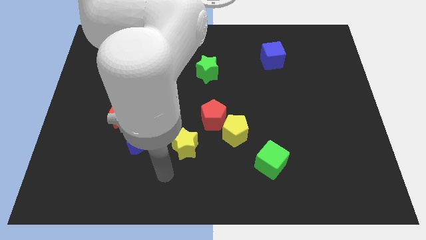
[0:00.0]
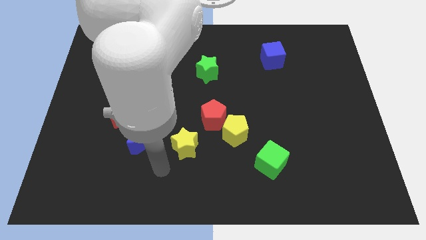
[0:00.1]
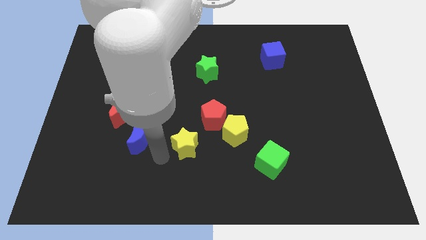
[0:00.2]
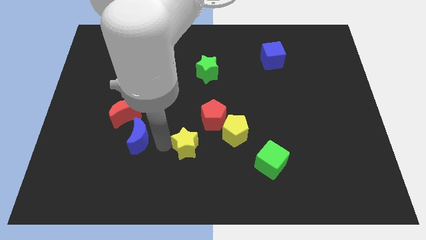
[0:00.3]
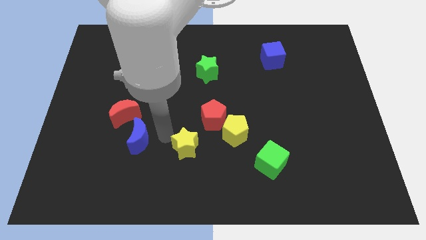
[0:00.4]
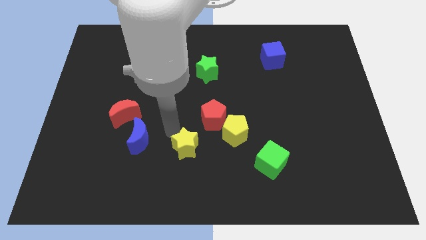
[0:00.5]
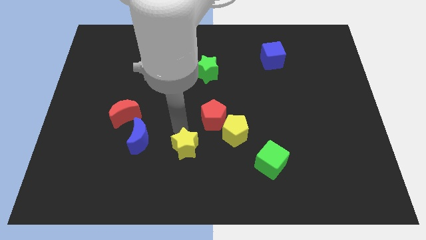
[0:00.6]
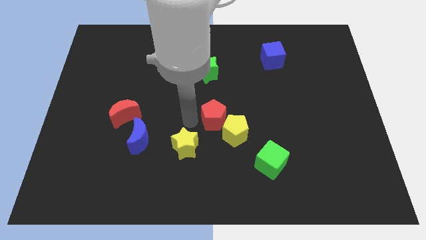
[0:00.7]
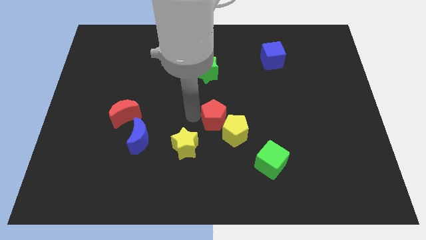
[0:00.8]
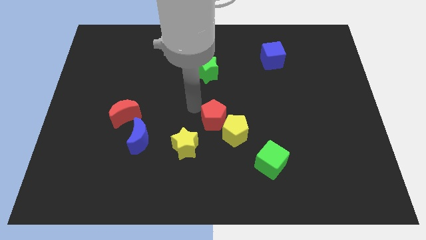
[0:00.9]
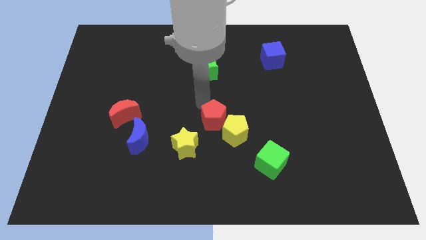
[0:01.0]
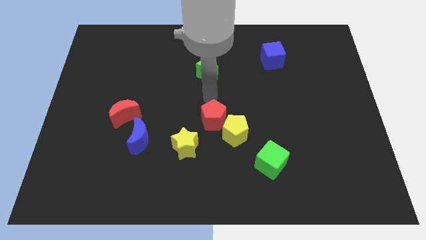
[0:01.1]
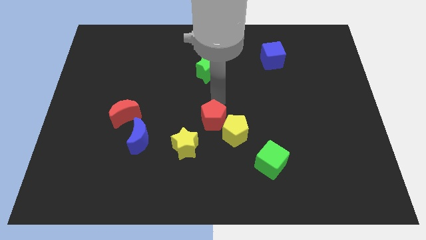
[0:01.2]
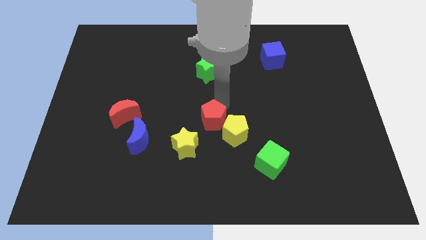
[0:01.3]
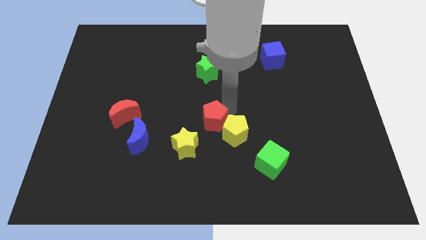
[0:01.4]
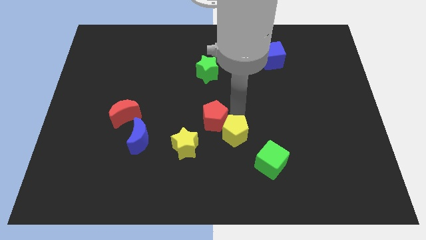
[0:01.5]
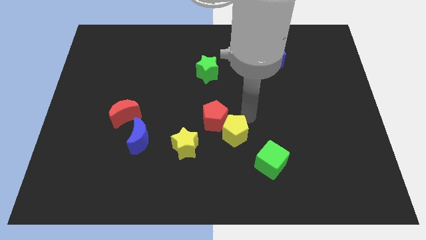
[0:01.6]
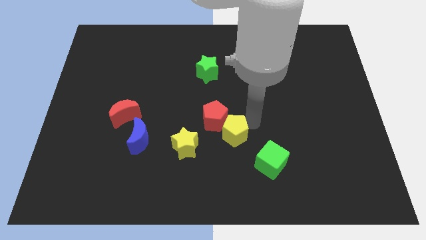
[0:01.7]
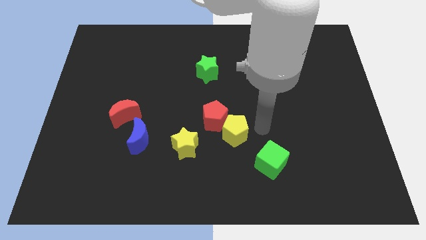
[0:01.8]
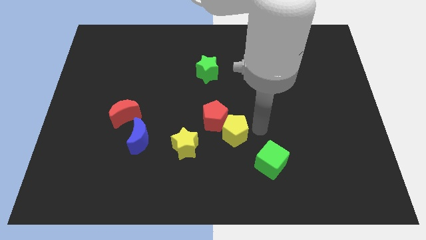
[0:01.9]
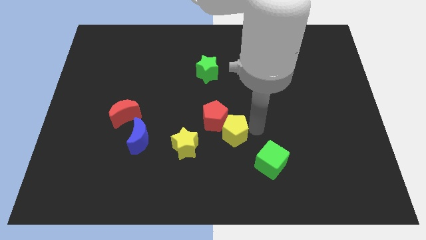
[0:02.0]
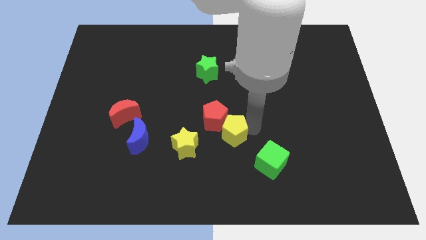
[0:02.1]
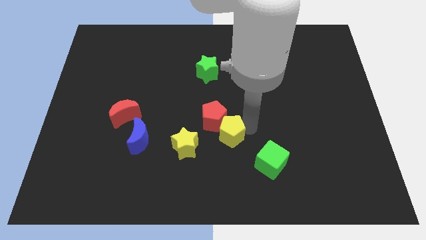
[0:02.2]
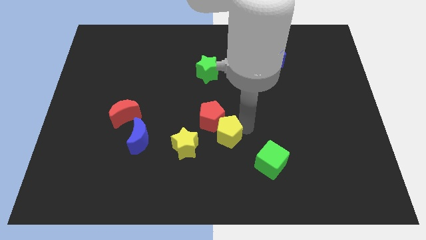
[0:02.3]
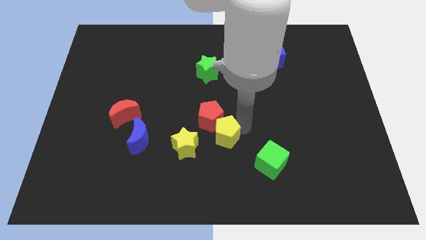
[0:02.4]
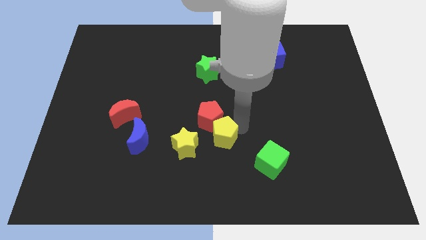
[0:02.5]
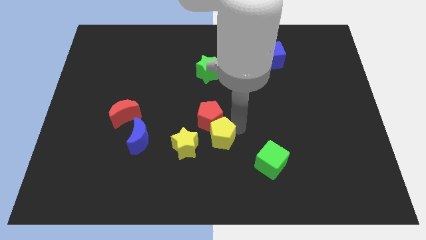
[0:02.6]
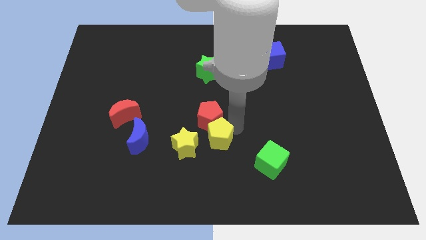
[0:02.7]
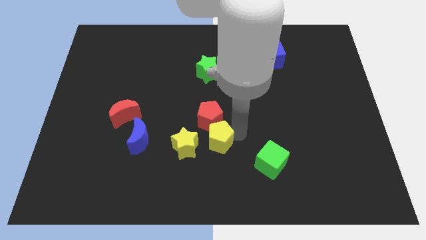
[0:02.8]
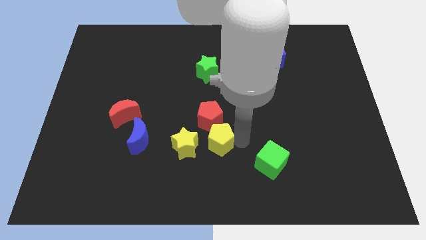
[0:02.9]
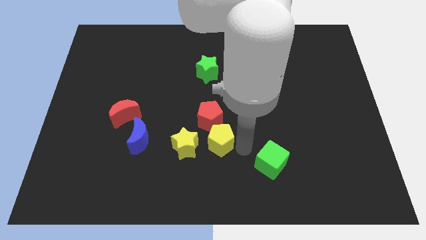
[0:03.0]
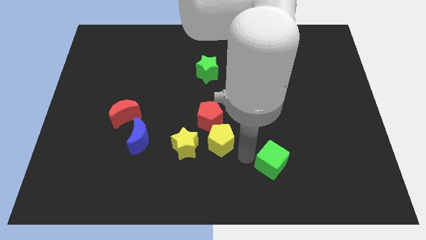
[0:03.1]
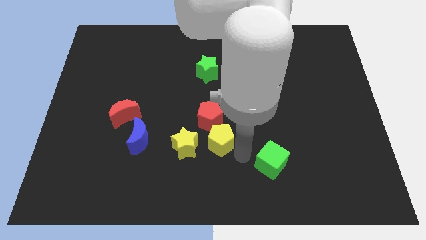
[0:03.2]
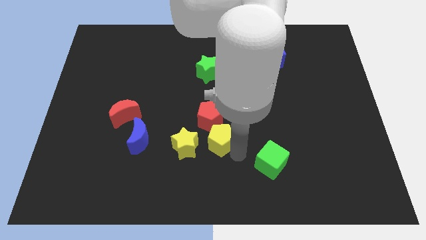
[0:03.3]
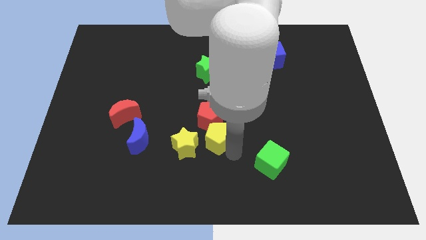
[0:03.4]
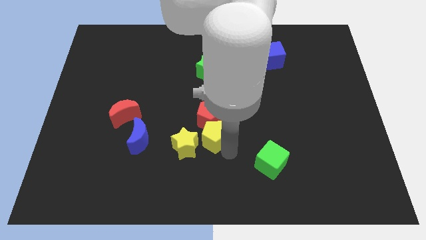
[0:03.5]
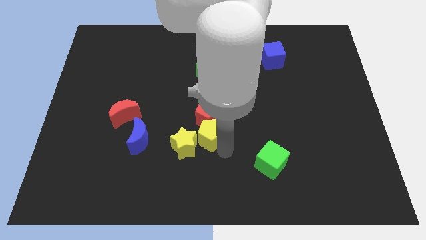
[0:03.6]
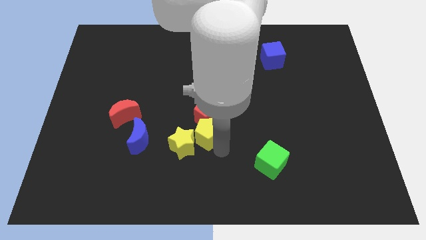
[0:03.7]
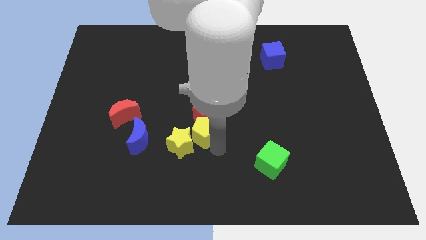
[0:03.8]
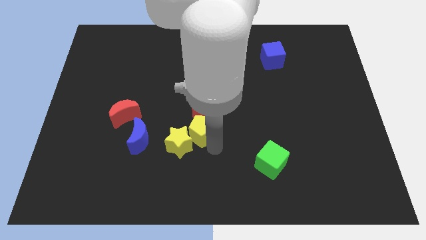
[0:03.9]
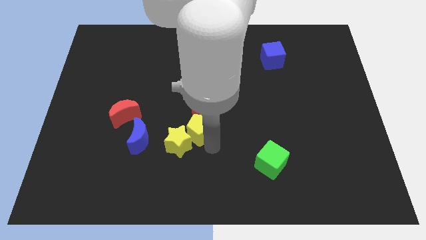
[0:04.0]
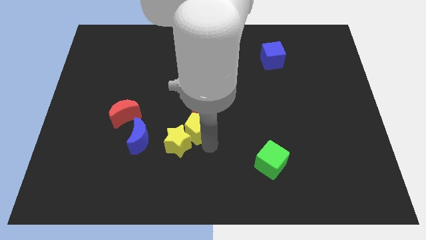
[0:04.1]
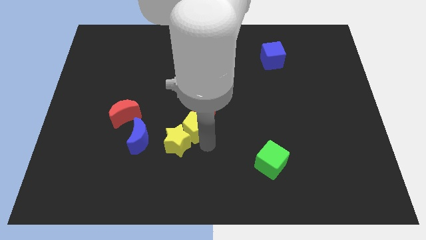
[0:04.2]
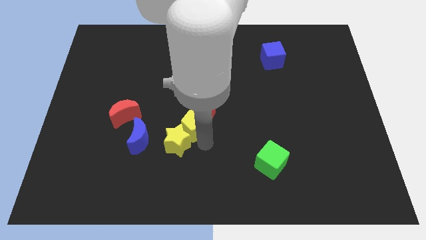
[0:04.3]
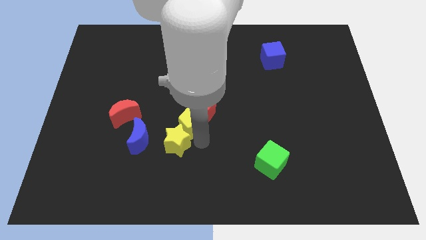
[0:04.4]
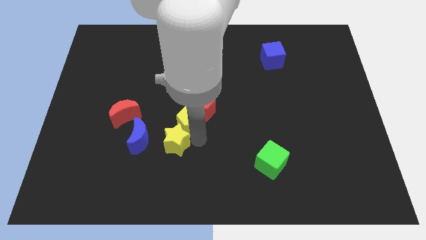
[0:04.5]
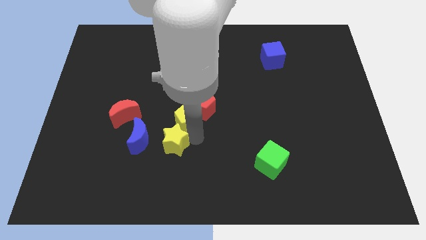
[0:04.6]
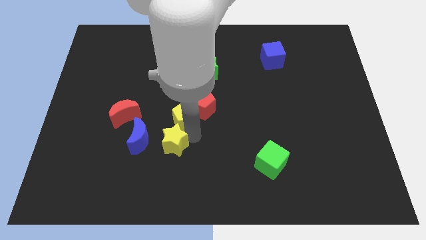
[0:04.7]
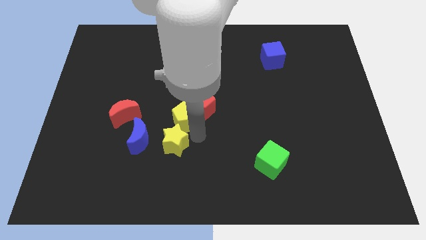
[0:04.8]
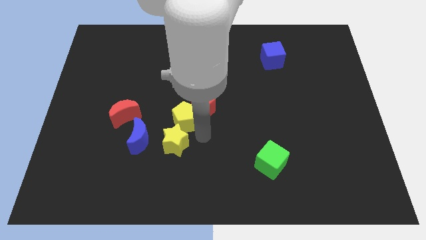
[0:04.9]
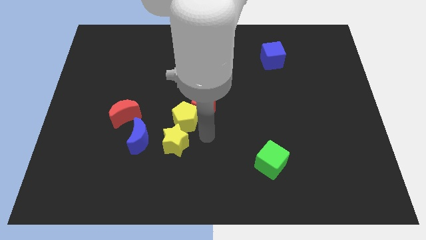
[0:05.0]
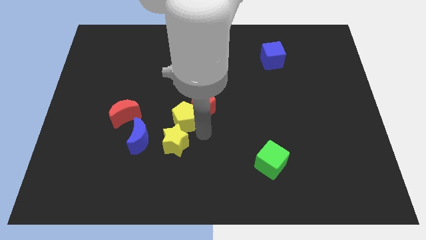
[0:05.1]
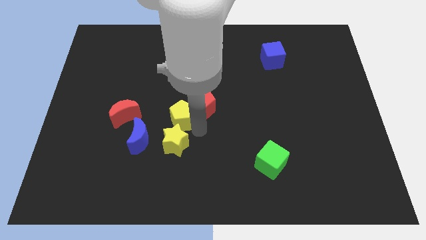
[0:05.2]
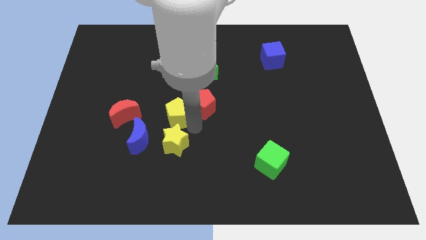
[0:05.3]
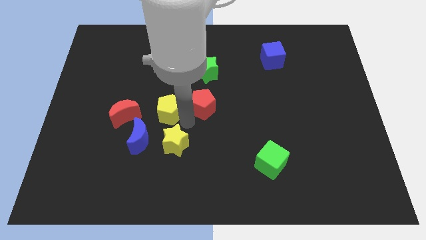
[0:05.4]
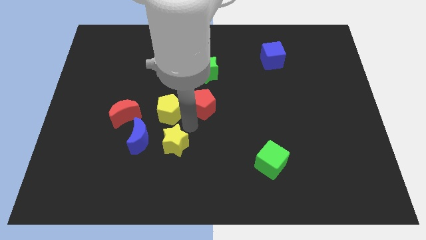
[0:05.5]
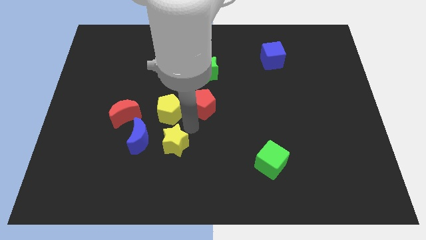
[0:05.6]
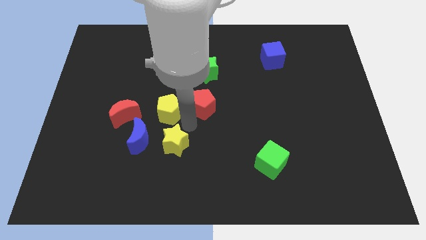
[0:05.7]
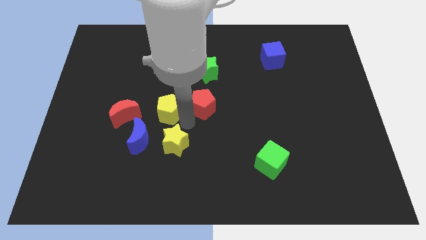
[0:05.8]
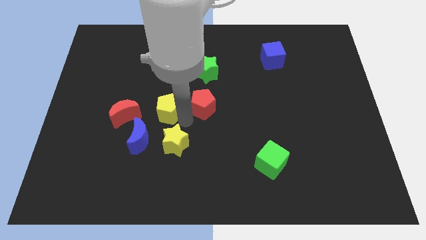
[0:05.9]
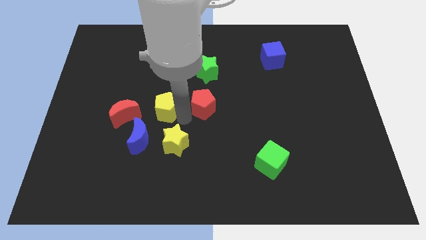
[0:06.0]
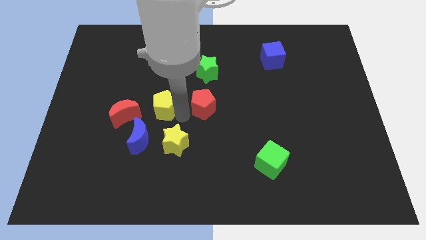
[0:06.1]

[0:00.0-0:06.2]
move the yellow pentagon to the top right side of the red moon

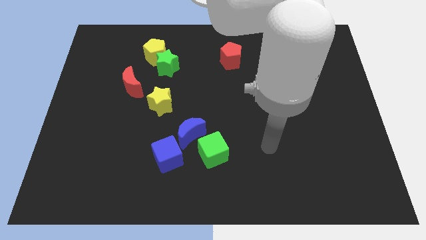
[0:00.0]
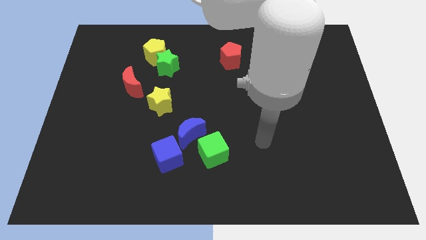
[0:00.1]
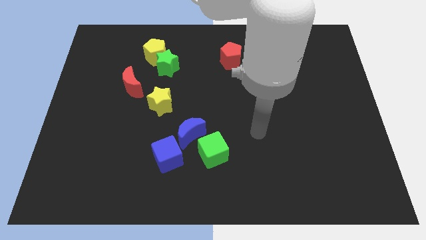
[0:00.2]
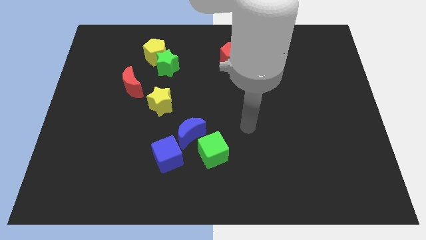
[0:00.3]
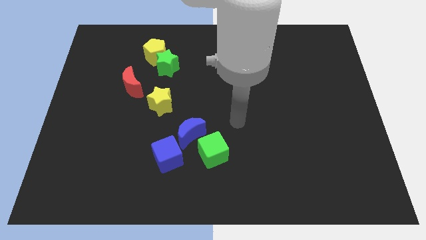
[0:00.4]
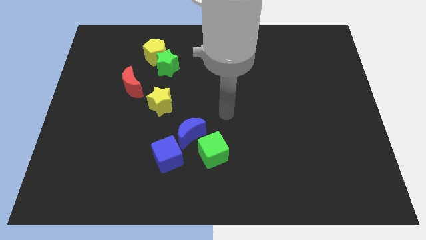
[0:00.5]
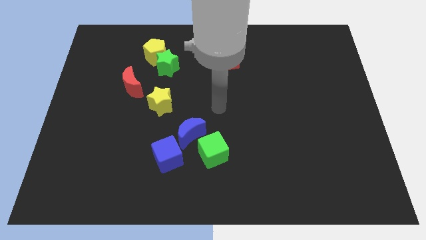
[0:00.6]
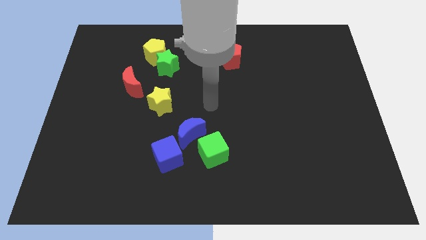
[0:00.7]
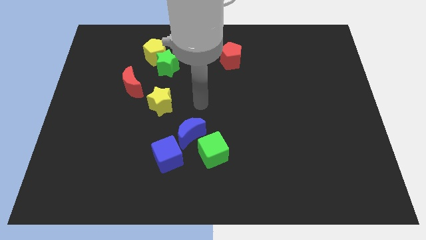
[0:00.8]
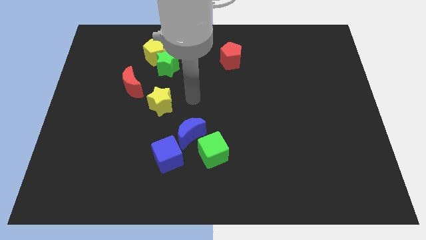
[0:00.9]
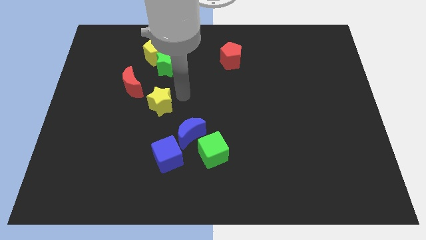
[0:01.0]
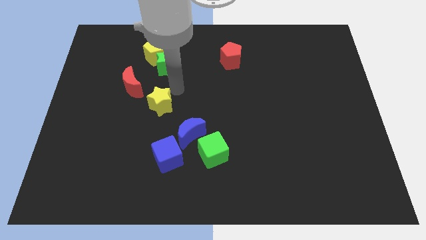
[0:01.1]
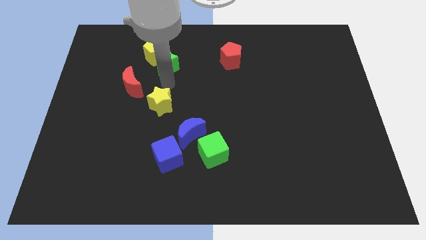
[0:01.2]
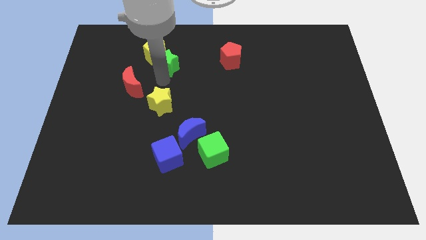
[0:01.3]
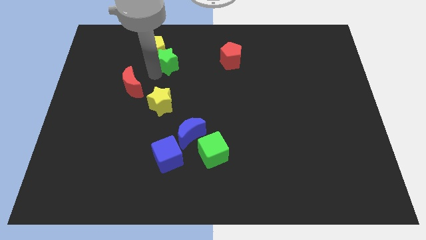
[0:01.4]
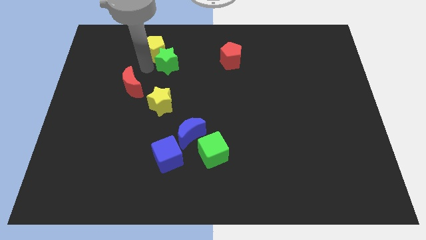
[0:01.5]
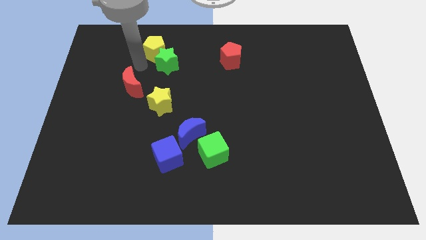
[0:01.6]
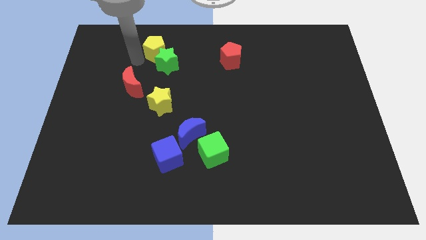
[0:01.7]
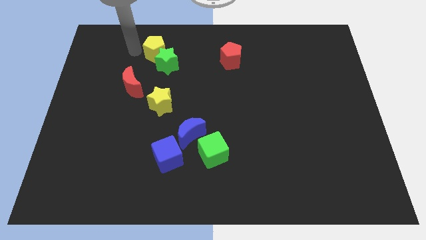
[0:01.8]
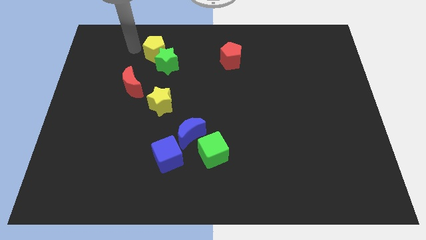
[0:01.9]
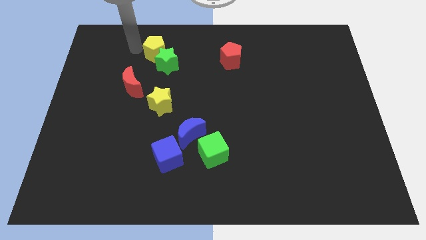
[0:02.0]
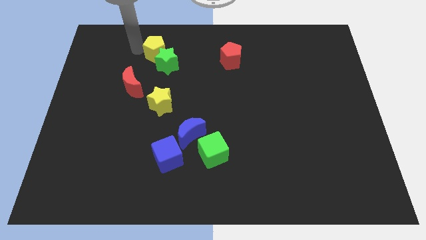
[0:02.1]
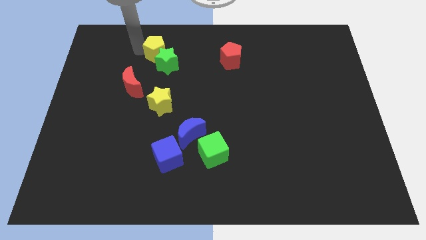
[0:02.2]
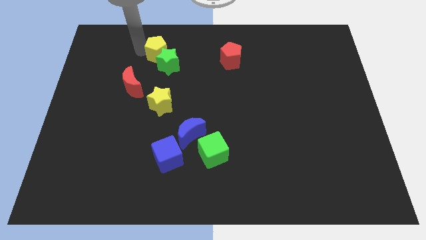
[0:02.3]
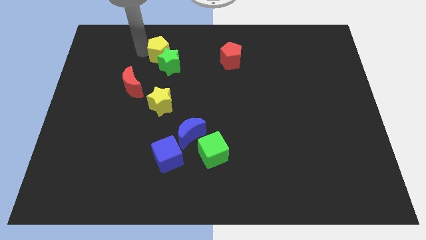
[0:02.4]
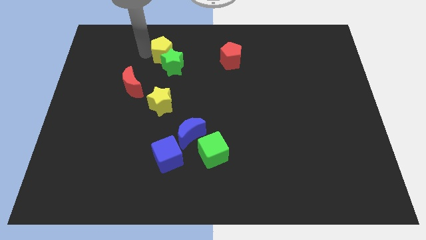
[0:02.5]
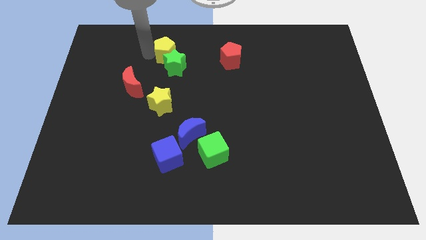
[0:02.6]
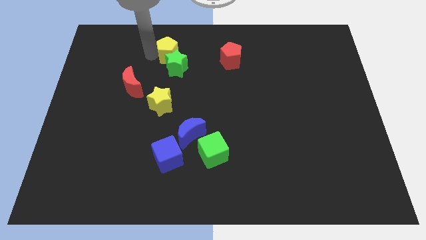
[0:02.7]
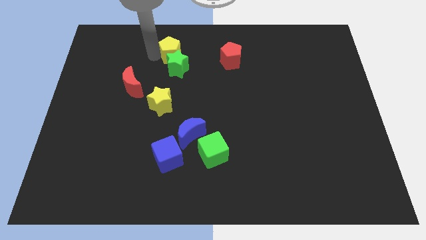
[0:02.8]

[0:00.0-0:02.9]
put the yellow pentagon just left of the red pentagon
